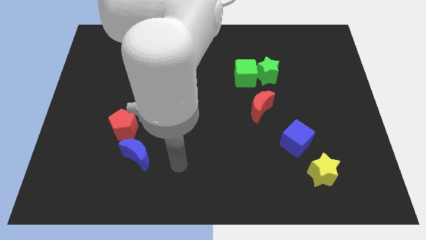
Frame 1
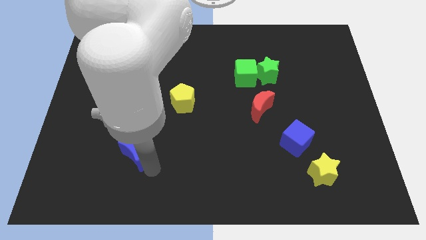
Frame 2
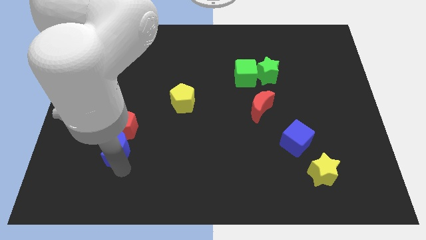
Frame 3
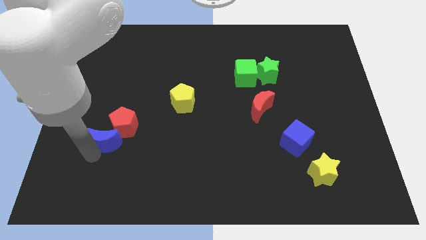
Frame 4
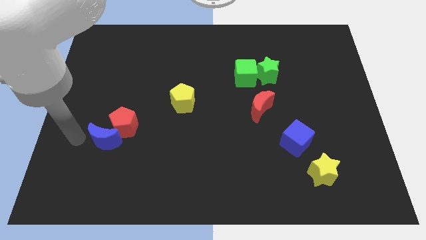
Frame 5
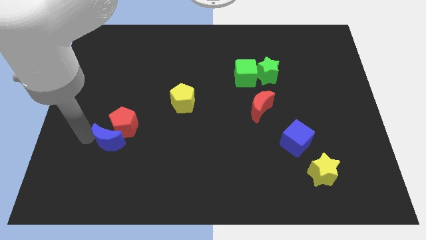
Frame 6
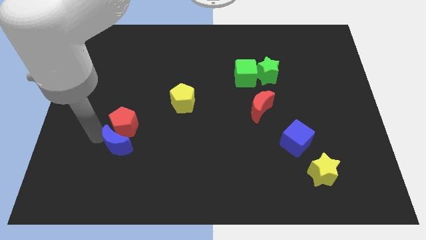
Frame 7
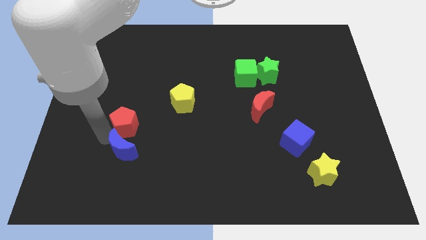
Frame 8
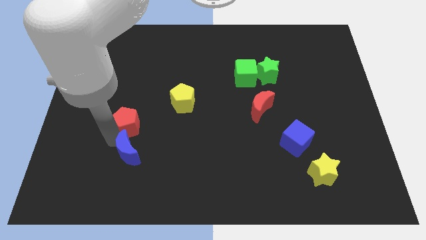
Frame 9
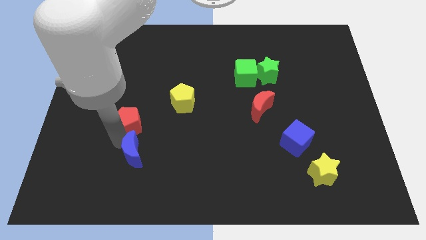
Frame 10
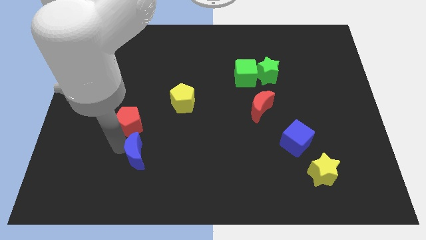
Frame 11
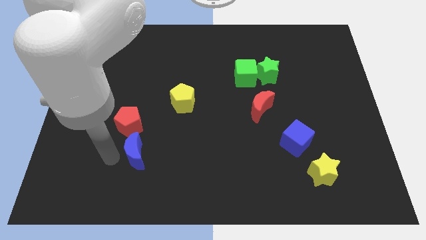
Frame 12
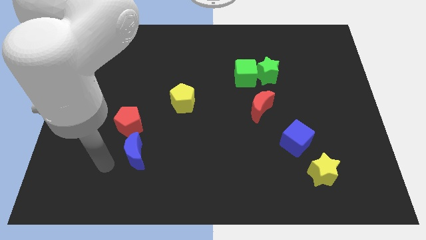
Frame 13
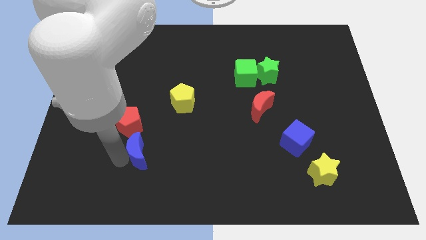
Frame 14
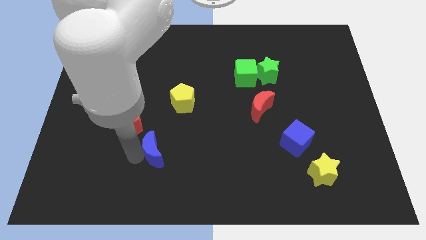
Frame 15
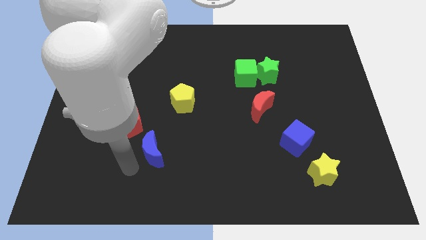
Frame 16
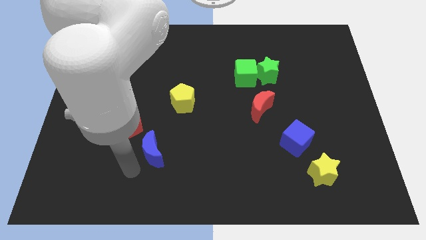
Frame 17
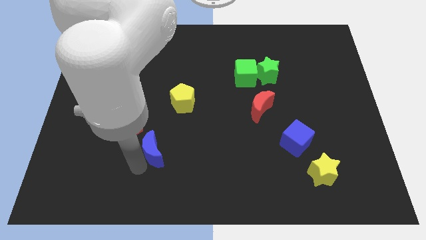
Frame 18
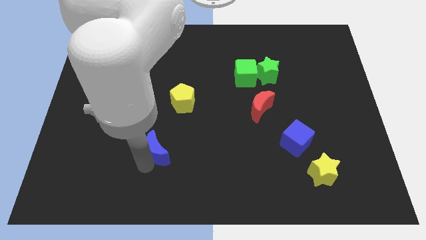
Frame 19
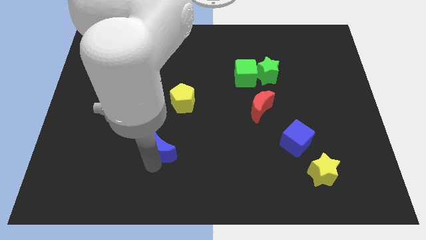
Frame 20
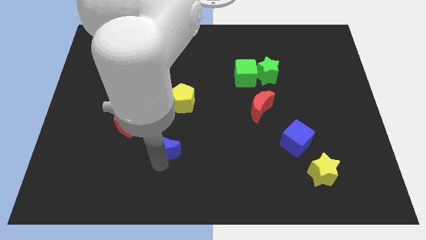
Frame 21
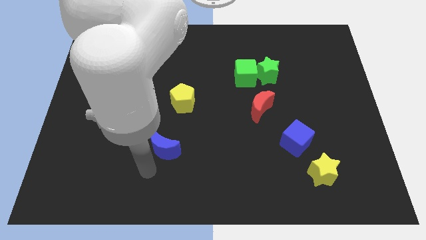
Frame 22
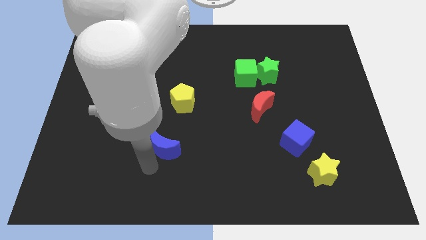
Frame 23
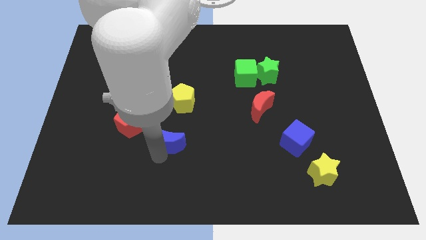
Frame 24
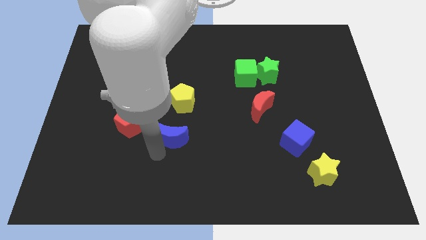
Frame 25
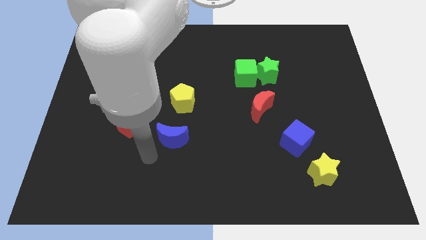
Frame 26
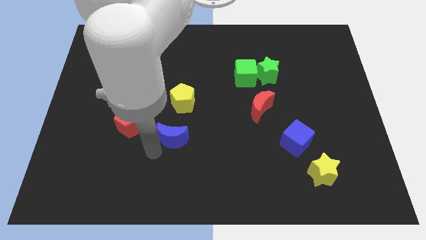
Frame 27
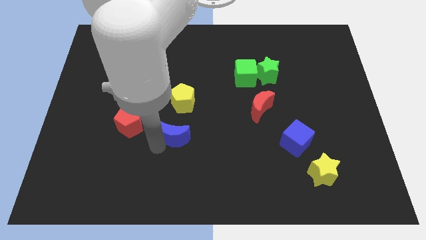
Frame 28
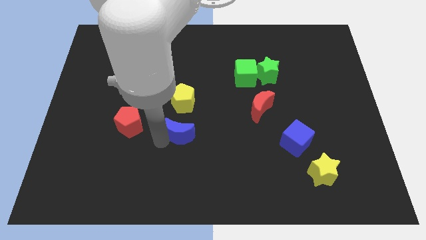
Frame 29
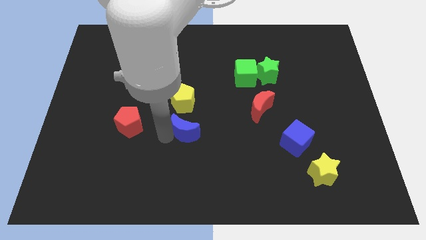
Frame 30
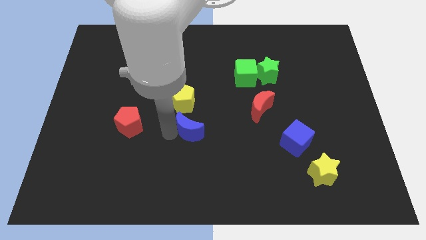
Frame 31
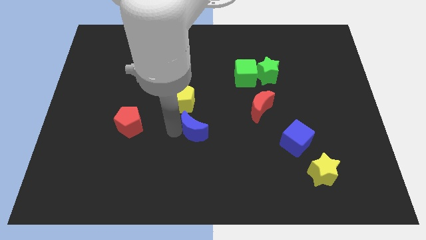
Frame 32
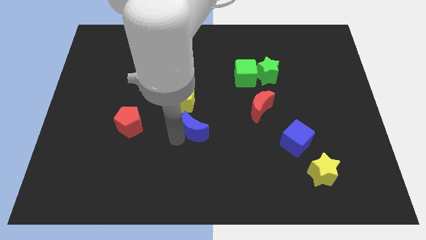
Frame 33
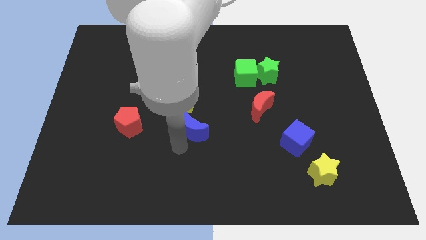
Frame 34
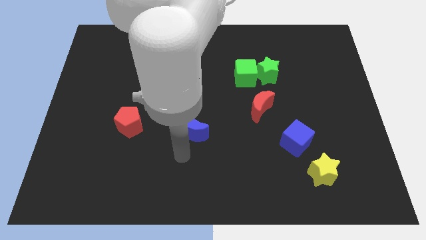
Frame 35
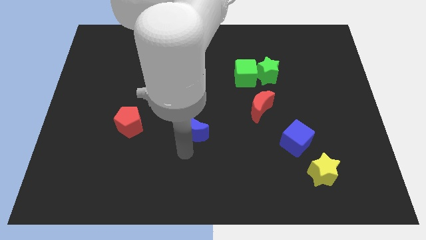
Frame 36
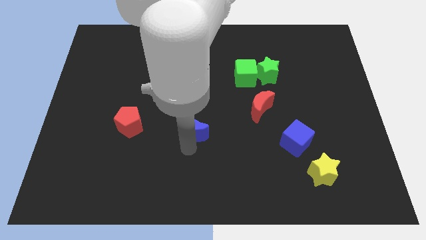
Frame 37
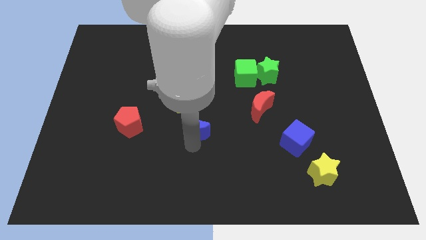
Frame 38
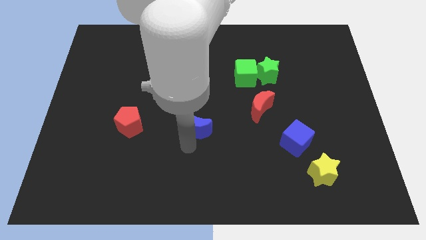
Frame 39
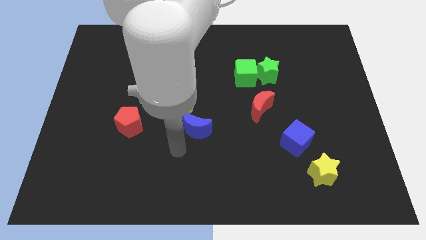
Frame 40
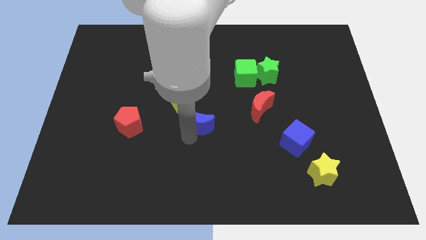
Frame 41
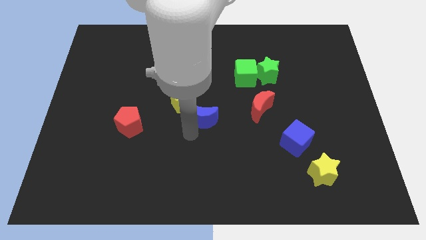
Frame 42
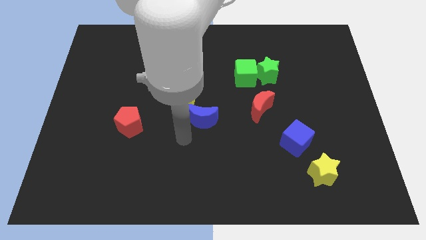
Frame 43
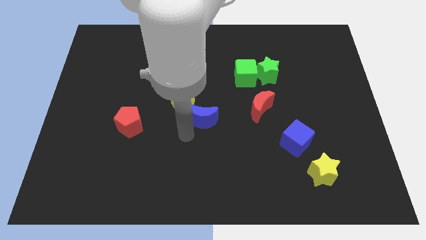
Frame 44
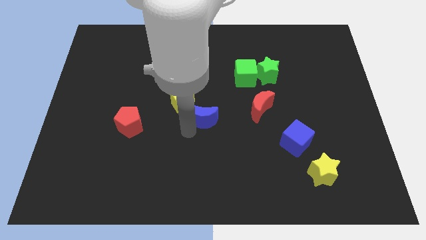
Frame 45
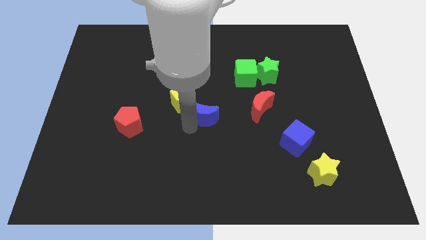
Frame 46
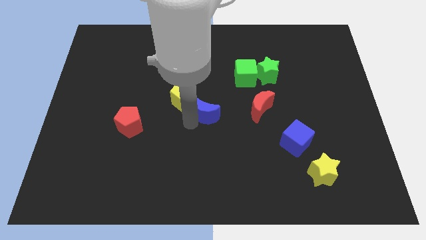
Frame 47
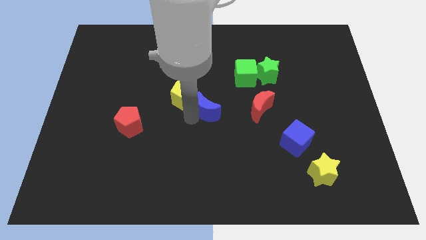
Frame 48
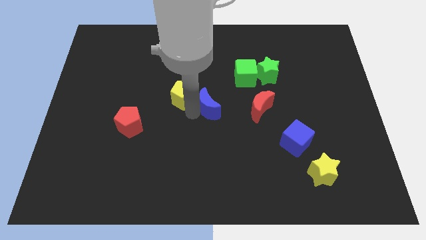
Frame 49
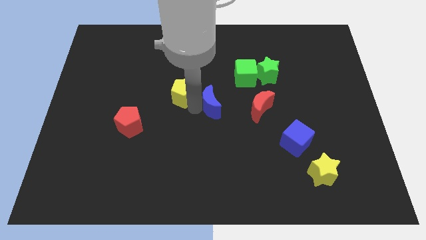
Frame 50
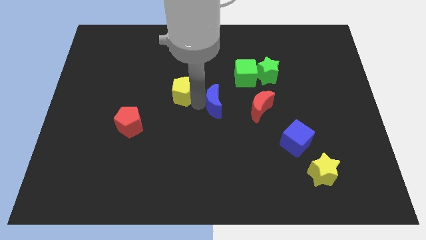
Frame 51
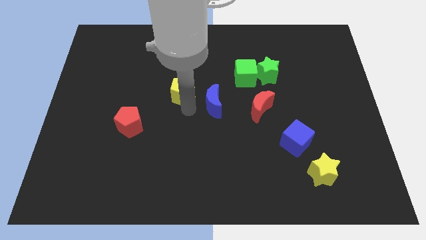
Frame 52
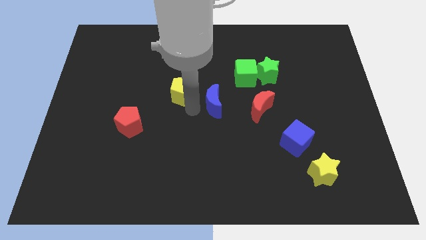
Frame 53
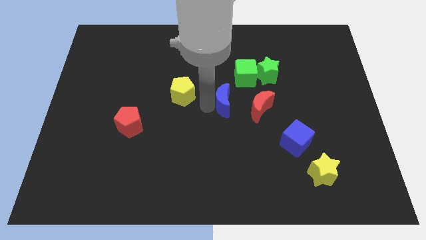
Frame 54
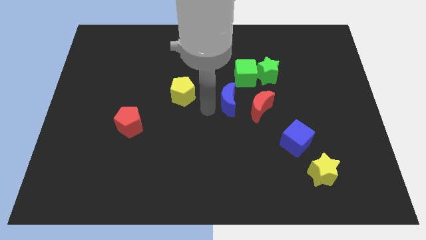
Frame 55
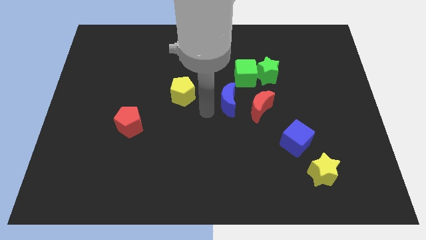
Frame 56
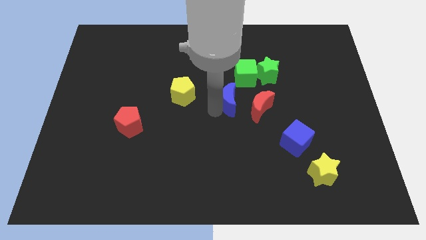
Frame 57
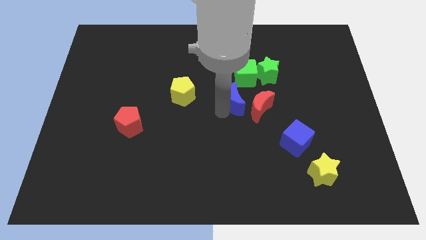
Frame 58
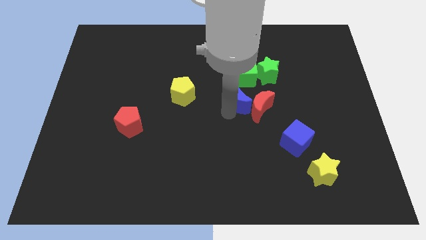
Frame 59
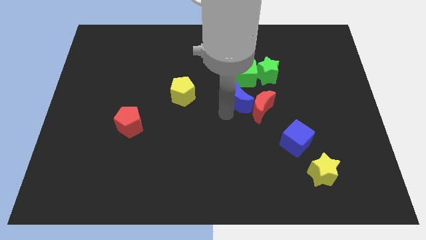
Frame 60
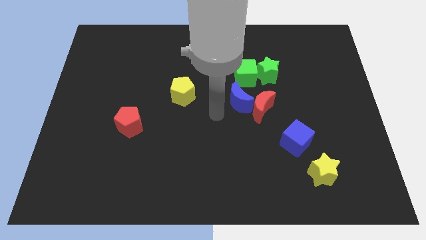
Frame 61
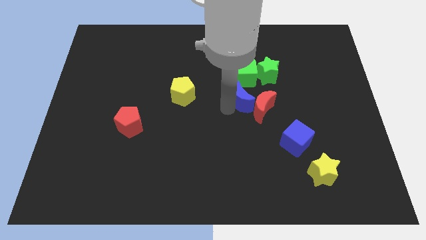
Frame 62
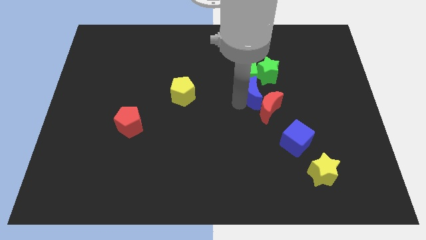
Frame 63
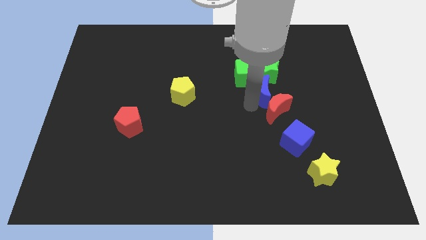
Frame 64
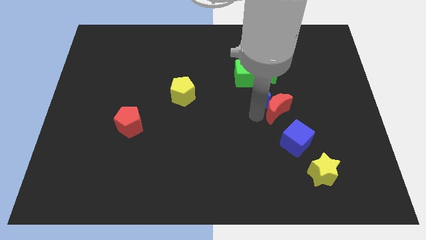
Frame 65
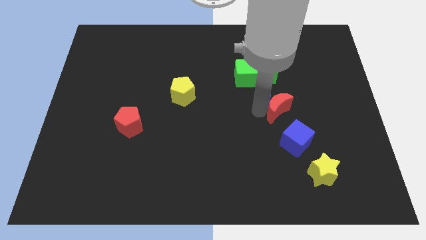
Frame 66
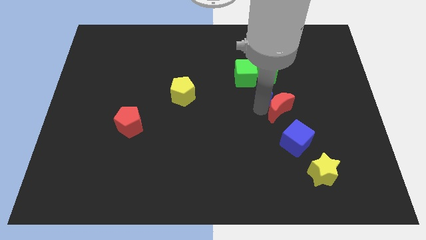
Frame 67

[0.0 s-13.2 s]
push the blue moon to the green star
